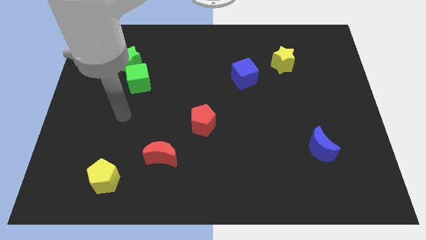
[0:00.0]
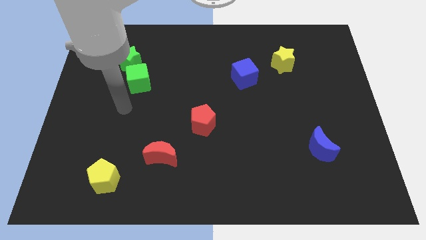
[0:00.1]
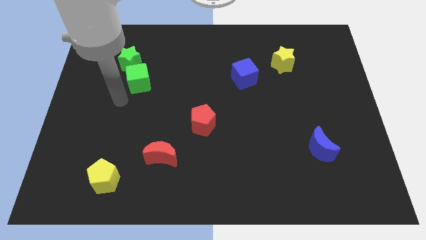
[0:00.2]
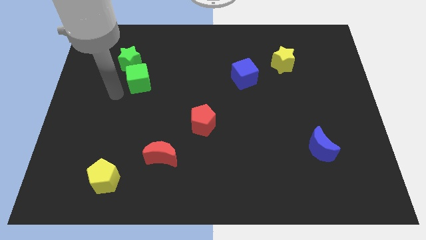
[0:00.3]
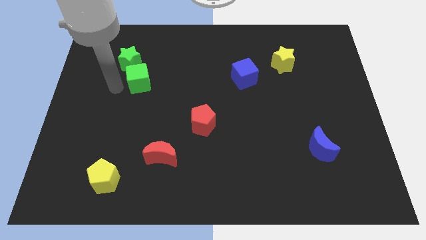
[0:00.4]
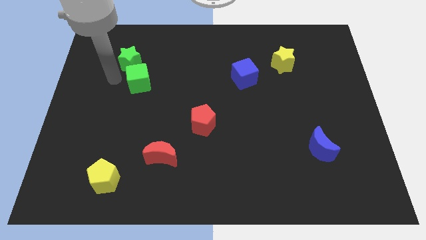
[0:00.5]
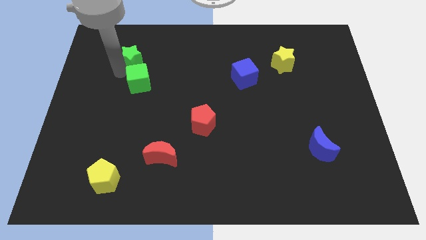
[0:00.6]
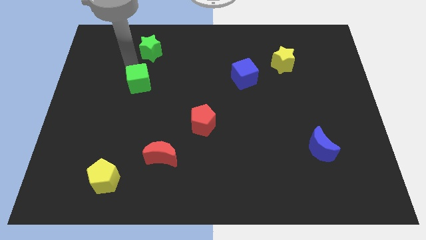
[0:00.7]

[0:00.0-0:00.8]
move the green cube away from the green star

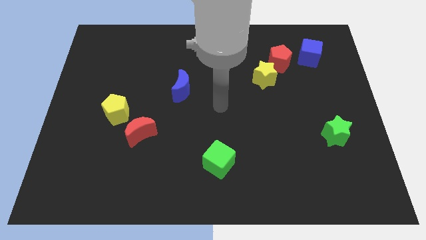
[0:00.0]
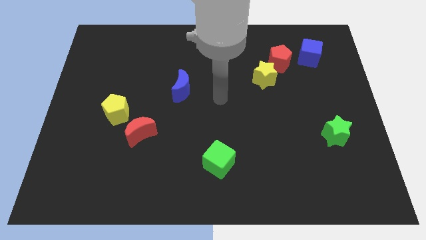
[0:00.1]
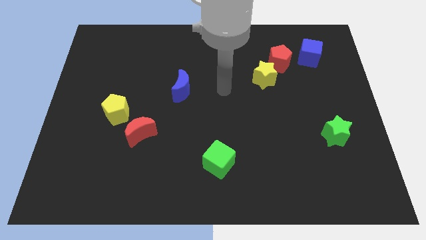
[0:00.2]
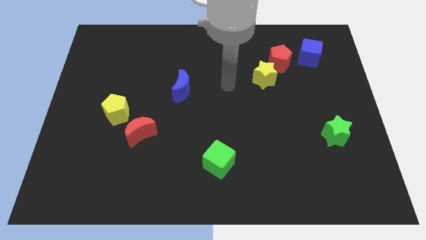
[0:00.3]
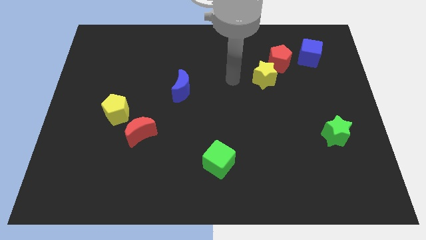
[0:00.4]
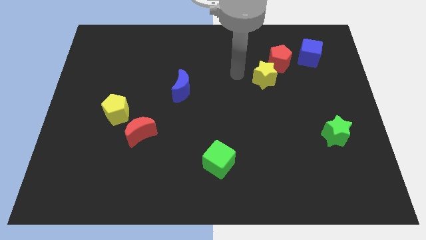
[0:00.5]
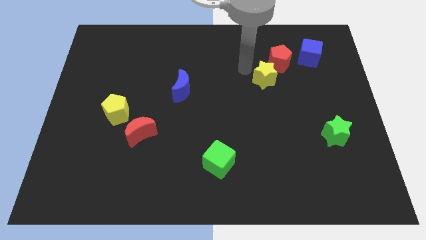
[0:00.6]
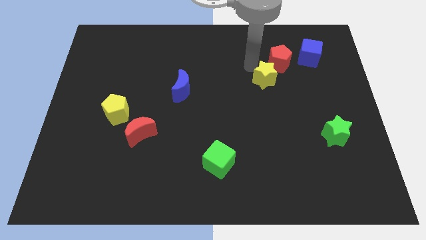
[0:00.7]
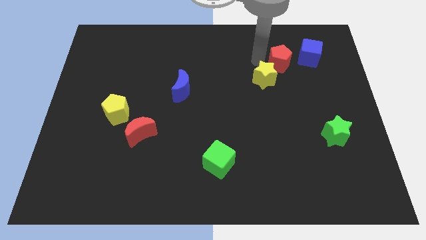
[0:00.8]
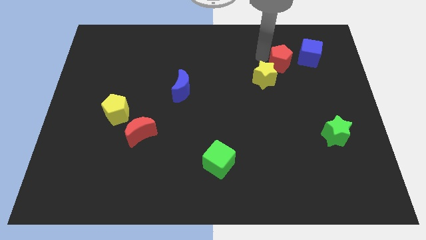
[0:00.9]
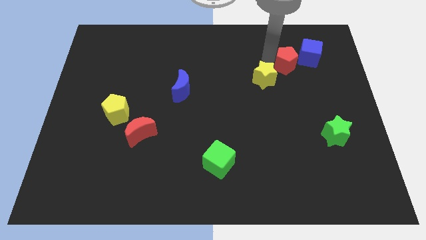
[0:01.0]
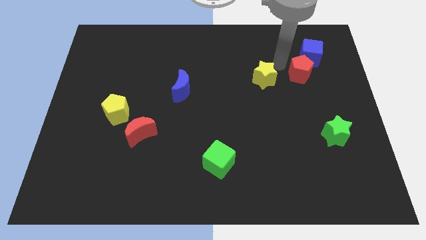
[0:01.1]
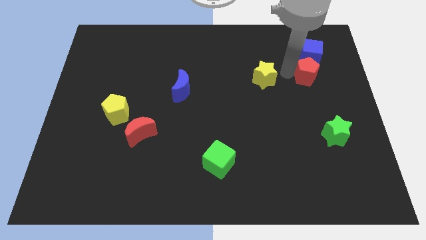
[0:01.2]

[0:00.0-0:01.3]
move the yellow star away from the red pentagon

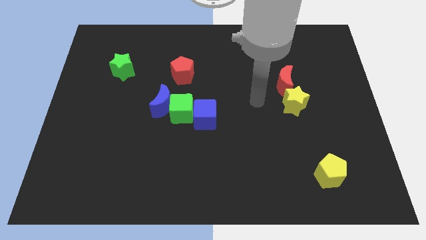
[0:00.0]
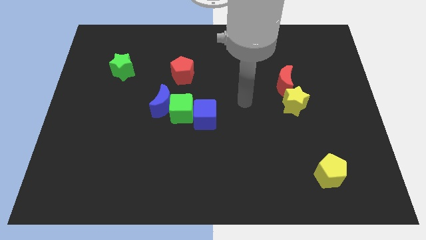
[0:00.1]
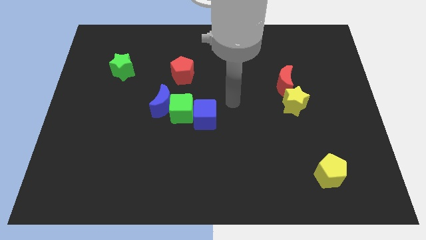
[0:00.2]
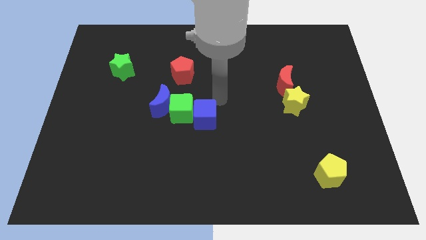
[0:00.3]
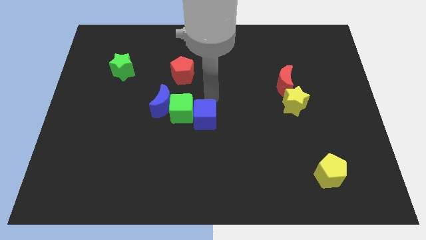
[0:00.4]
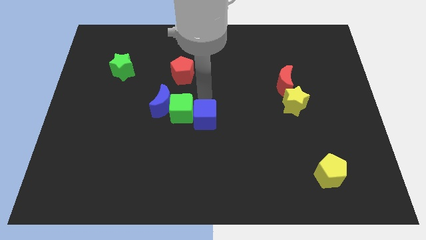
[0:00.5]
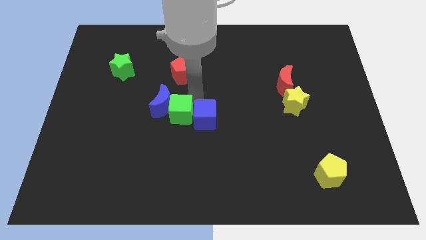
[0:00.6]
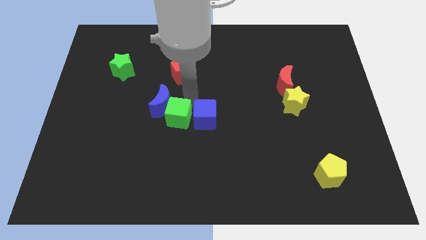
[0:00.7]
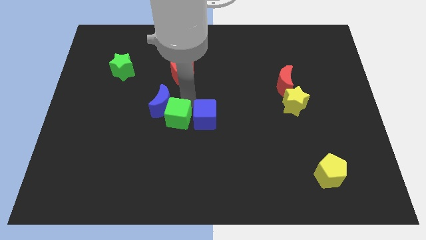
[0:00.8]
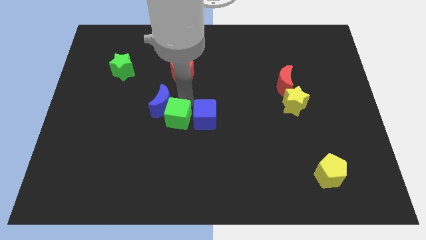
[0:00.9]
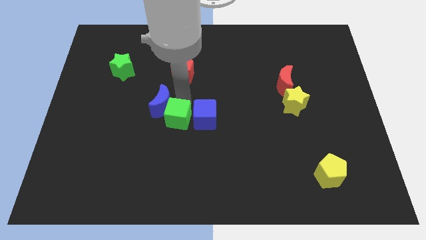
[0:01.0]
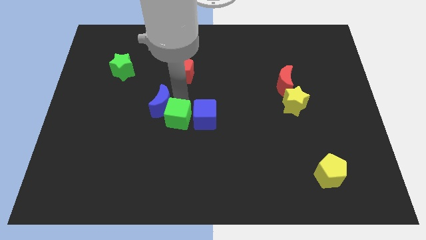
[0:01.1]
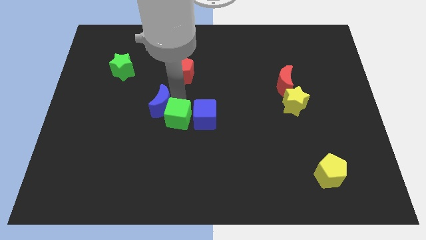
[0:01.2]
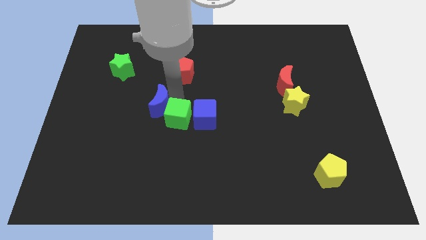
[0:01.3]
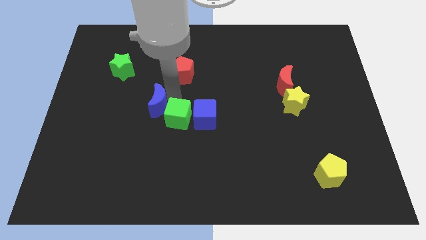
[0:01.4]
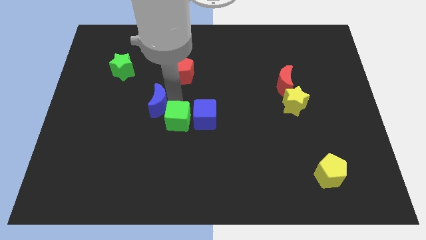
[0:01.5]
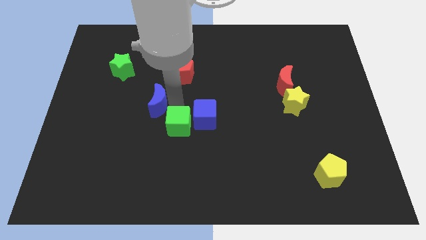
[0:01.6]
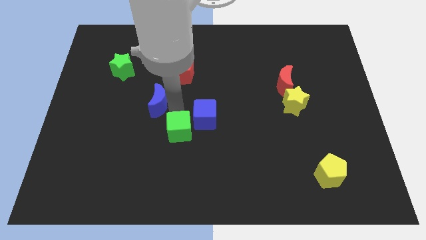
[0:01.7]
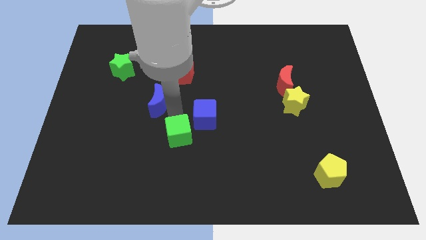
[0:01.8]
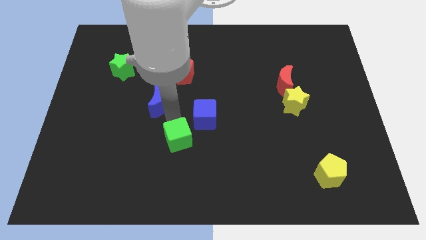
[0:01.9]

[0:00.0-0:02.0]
separate the blue moon from the green cube

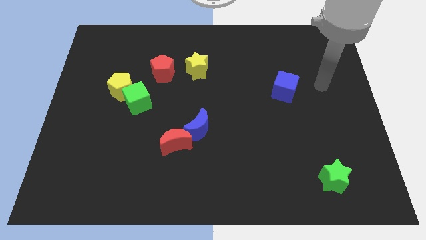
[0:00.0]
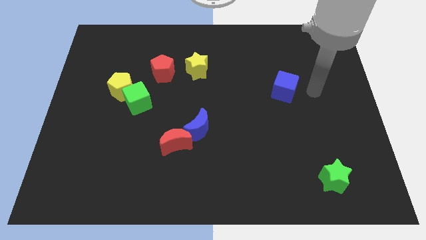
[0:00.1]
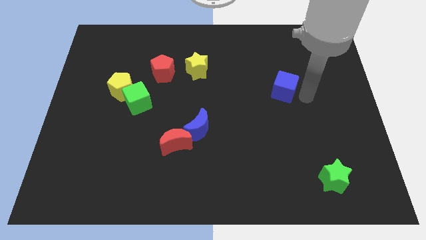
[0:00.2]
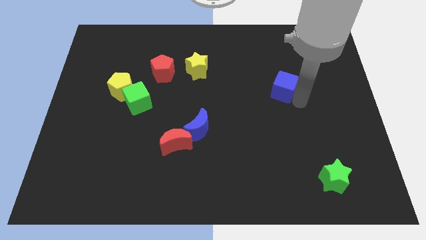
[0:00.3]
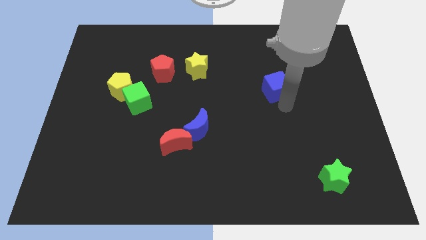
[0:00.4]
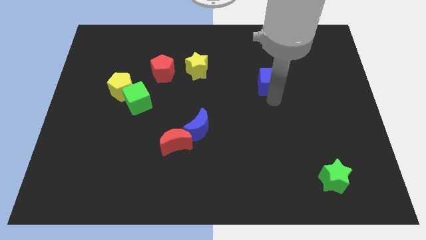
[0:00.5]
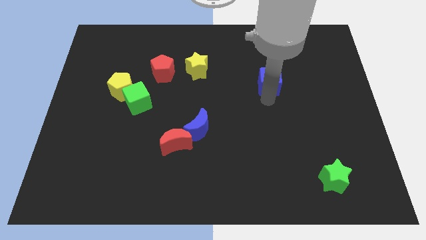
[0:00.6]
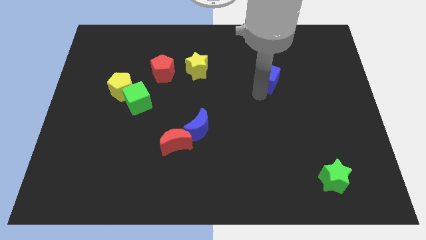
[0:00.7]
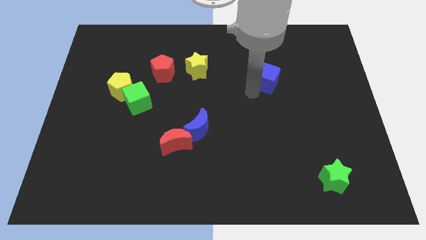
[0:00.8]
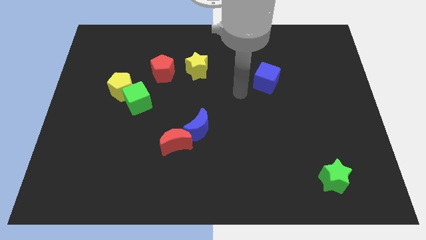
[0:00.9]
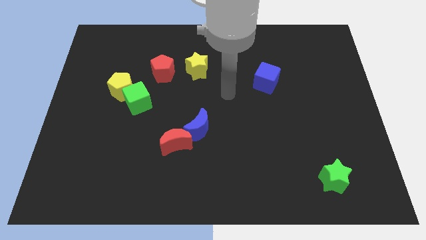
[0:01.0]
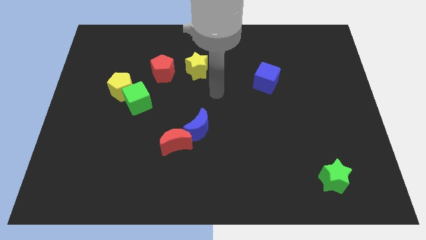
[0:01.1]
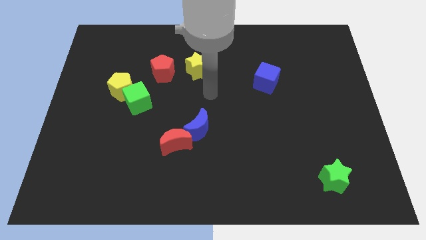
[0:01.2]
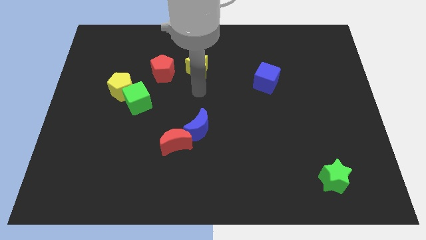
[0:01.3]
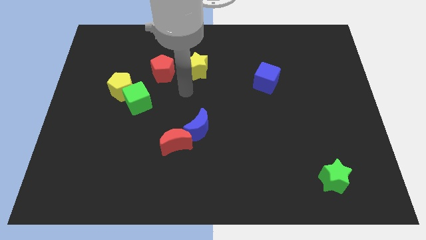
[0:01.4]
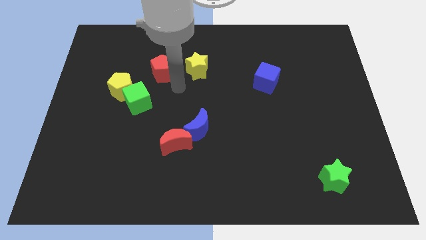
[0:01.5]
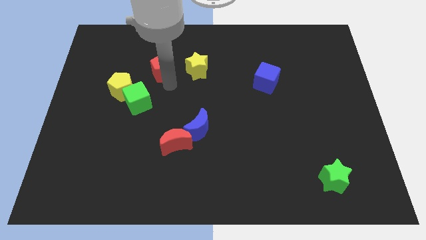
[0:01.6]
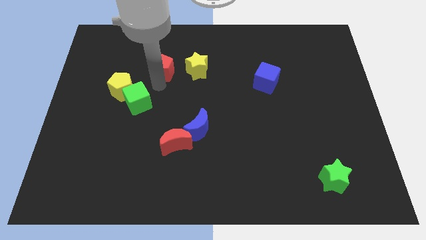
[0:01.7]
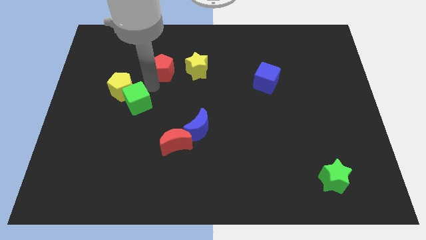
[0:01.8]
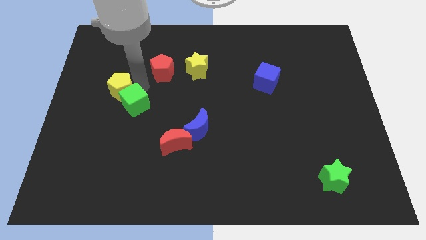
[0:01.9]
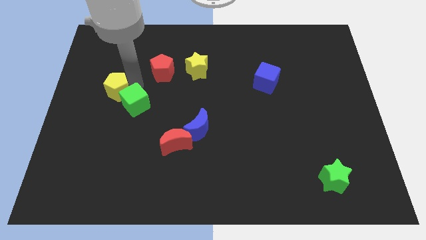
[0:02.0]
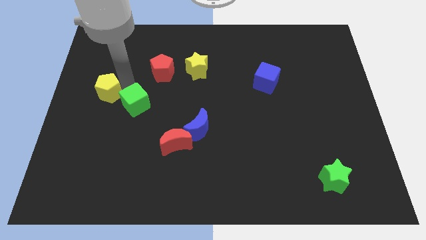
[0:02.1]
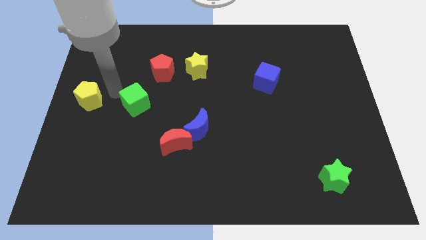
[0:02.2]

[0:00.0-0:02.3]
move the green cube away from the yellow pentagon

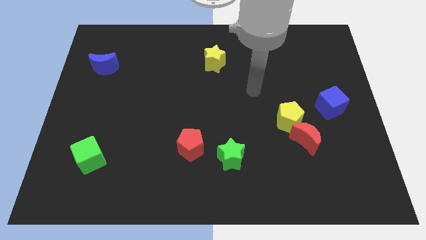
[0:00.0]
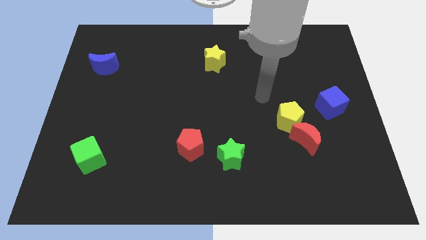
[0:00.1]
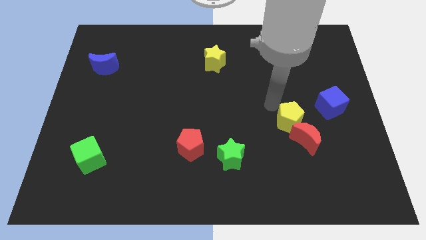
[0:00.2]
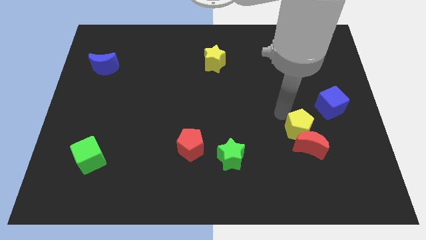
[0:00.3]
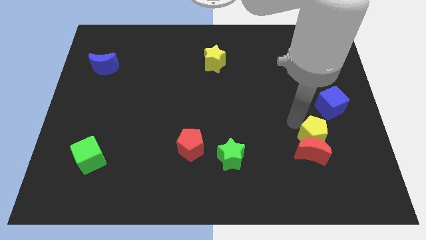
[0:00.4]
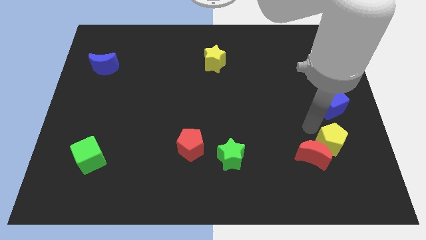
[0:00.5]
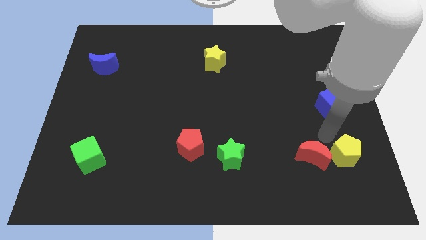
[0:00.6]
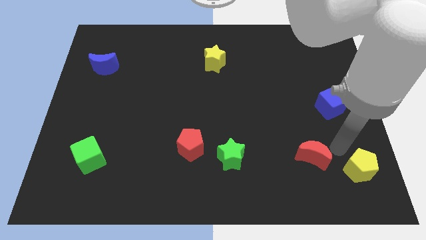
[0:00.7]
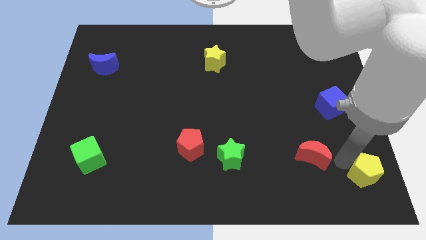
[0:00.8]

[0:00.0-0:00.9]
move the red moon away from the yellow pentagon

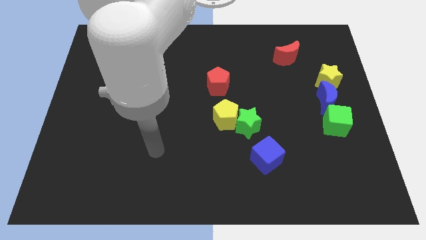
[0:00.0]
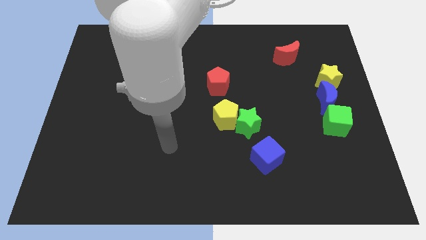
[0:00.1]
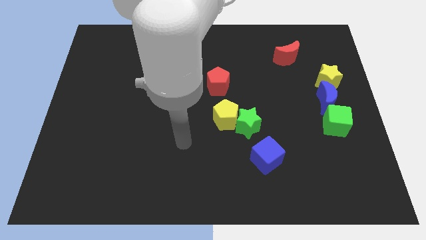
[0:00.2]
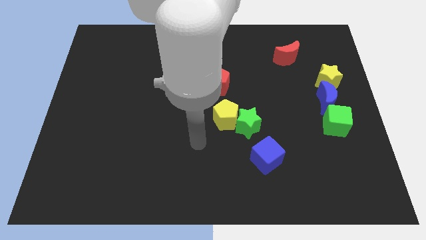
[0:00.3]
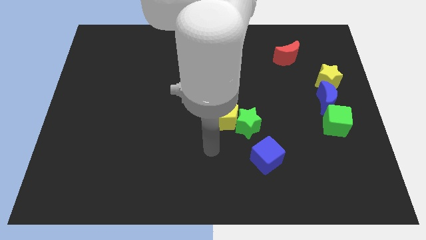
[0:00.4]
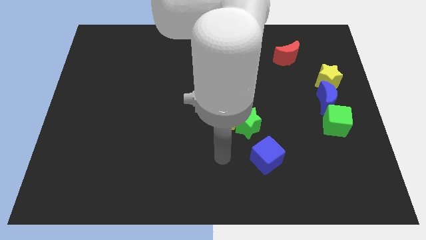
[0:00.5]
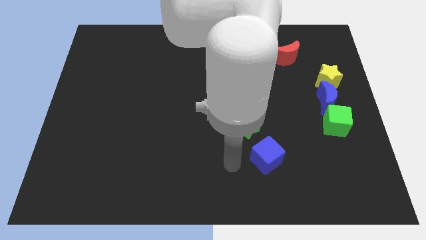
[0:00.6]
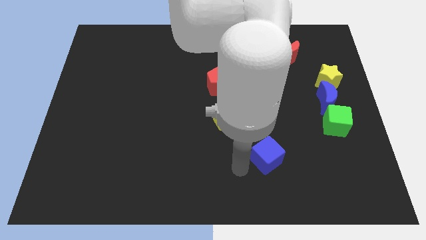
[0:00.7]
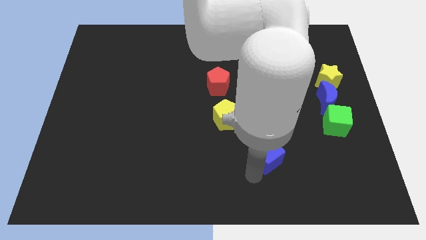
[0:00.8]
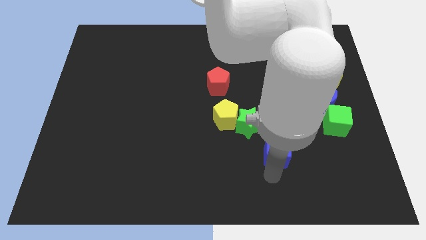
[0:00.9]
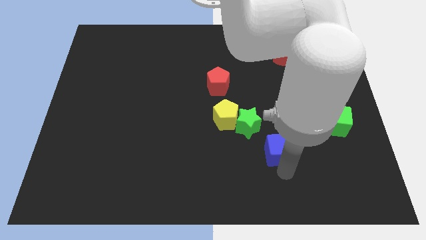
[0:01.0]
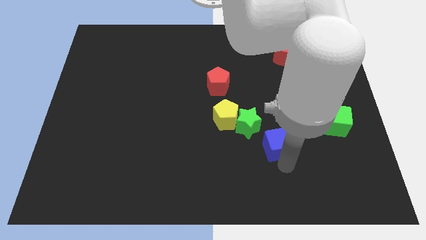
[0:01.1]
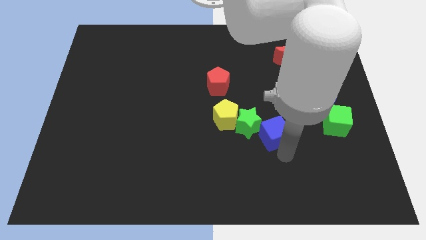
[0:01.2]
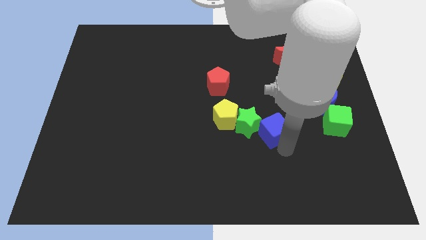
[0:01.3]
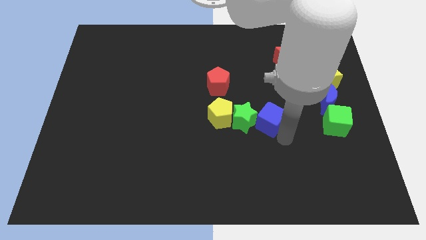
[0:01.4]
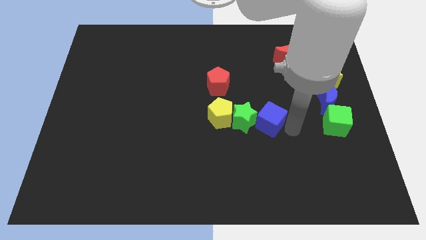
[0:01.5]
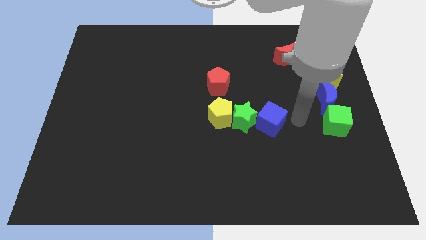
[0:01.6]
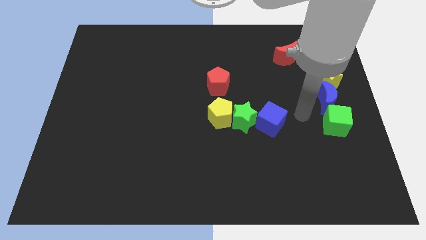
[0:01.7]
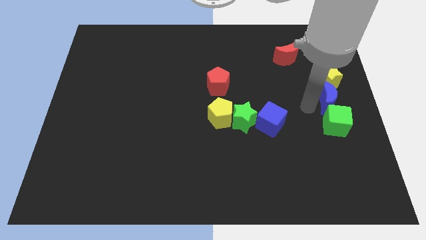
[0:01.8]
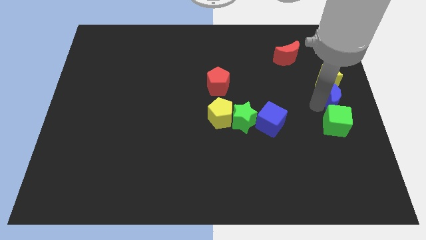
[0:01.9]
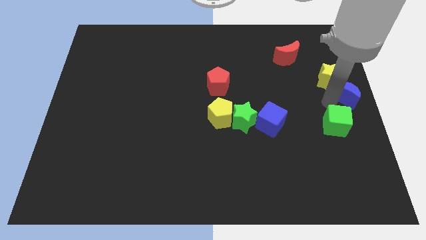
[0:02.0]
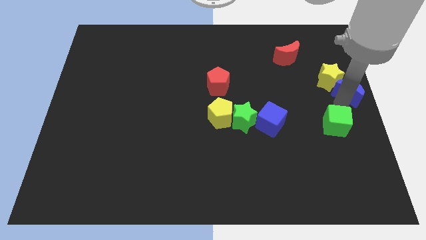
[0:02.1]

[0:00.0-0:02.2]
move the green cube away from the blue moon
